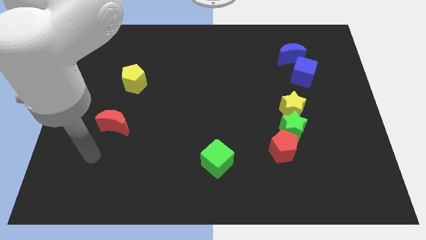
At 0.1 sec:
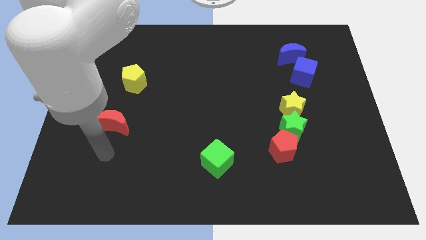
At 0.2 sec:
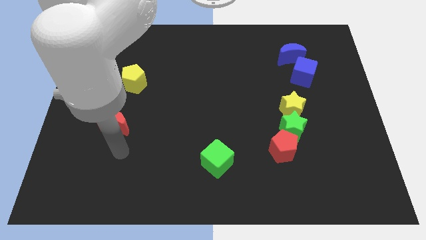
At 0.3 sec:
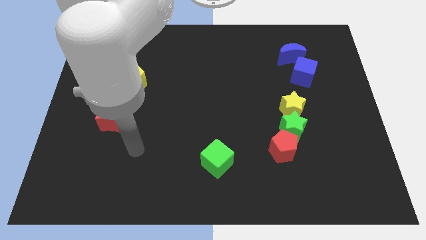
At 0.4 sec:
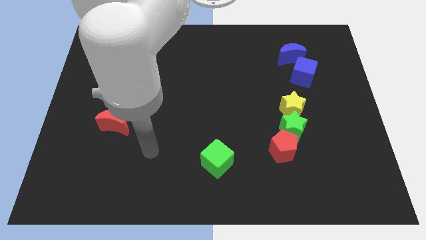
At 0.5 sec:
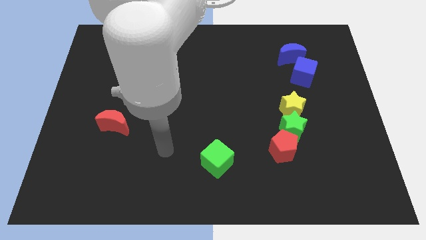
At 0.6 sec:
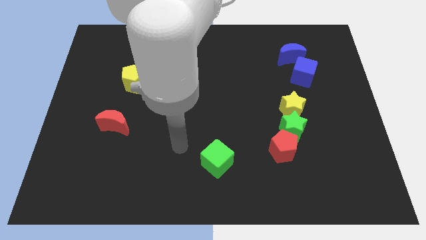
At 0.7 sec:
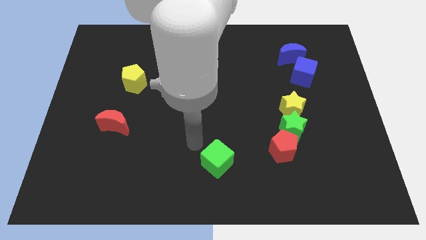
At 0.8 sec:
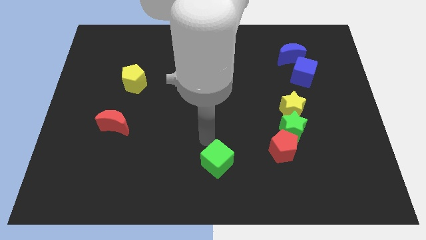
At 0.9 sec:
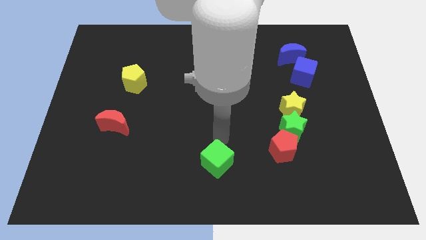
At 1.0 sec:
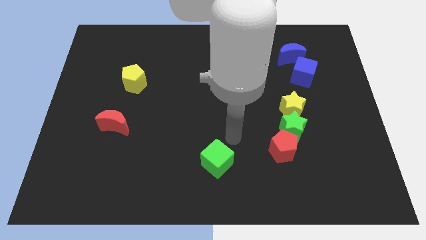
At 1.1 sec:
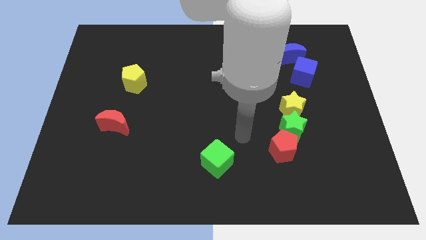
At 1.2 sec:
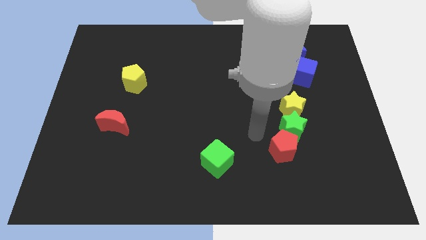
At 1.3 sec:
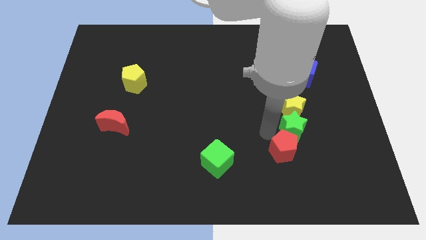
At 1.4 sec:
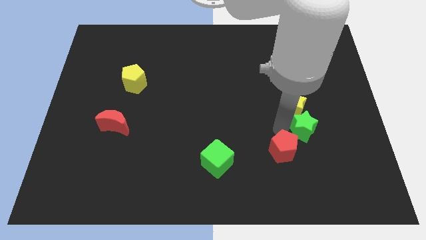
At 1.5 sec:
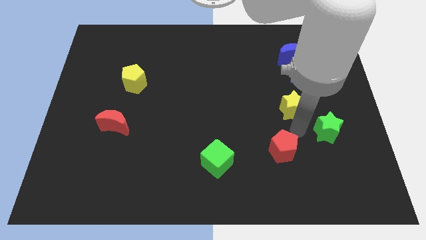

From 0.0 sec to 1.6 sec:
move the red pentagon away from the green star

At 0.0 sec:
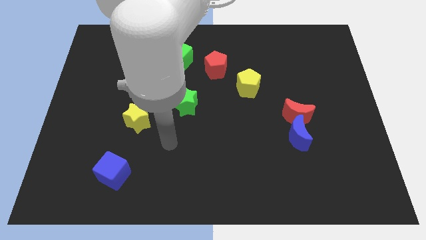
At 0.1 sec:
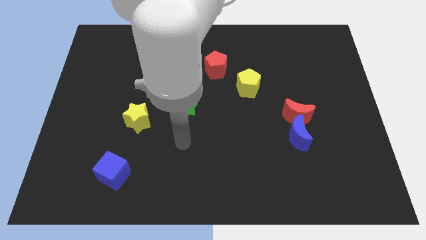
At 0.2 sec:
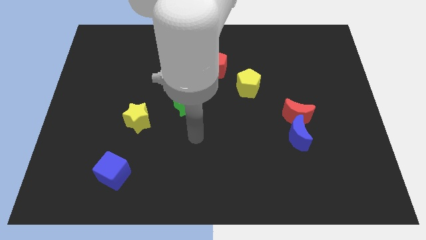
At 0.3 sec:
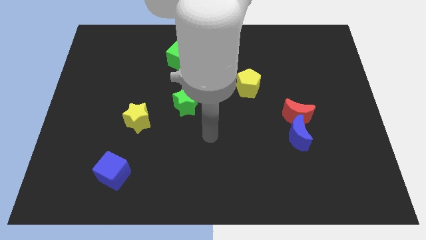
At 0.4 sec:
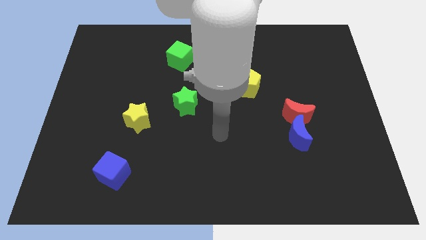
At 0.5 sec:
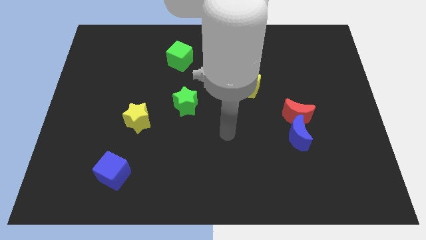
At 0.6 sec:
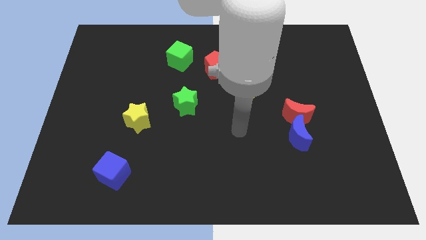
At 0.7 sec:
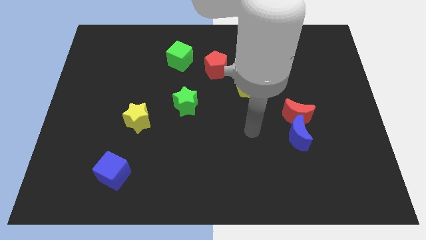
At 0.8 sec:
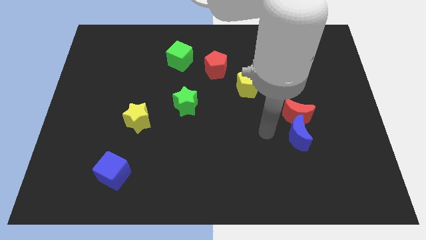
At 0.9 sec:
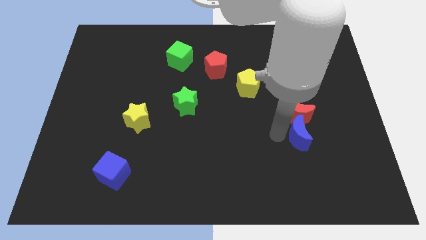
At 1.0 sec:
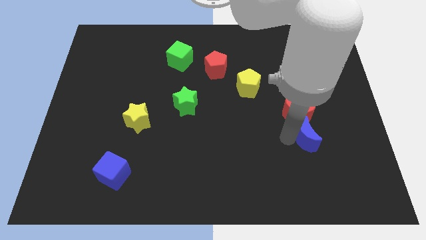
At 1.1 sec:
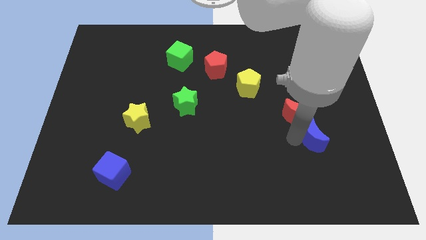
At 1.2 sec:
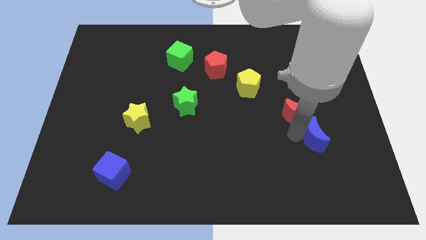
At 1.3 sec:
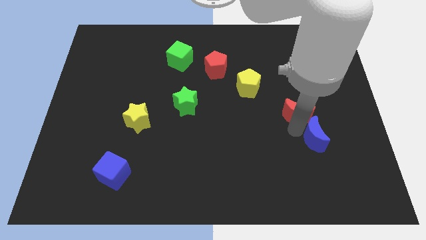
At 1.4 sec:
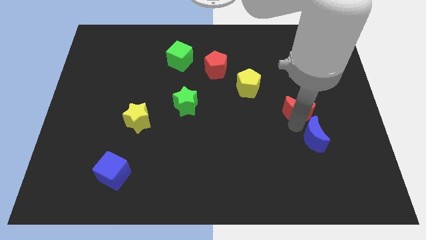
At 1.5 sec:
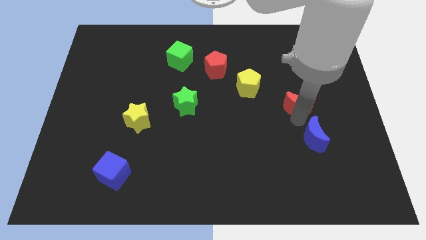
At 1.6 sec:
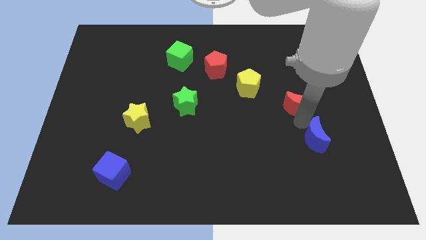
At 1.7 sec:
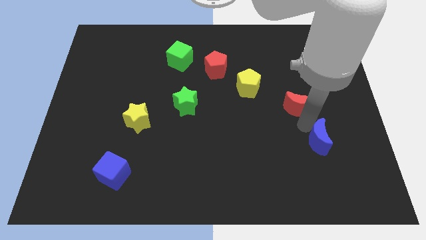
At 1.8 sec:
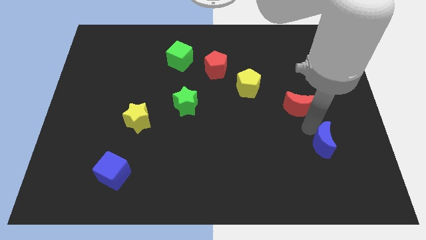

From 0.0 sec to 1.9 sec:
separate the red moon from the blue moon

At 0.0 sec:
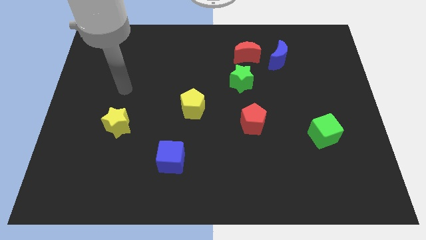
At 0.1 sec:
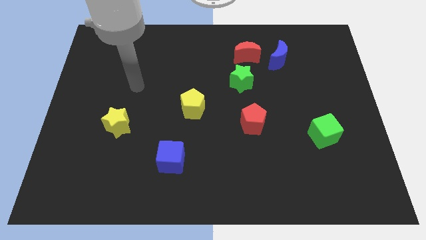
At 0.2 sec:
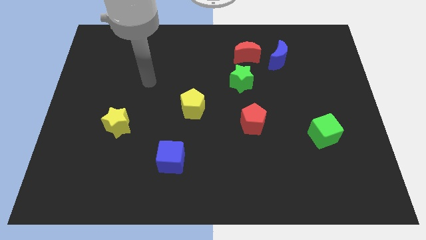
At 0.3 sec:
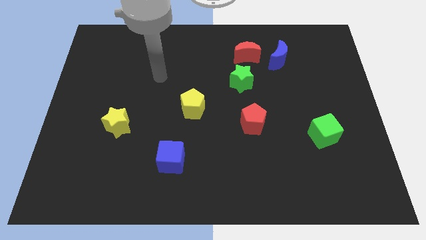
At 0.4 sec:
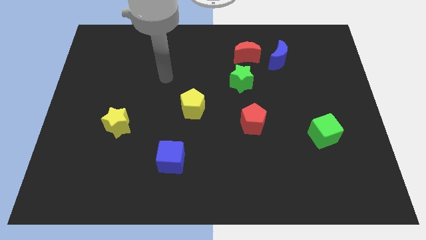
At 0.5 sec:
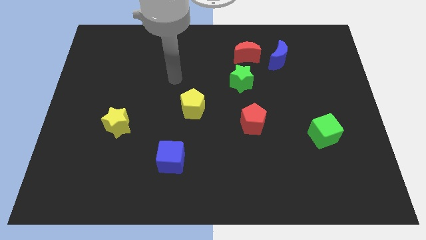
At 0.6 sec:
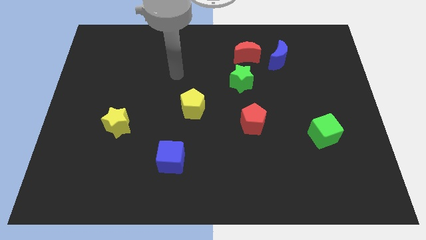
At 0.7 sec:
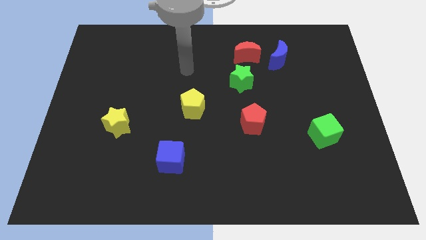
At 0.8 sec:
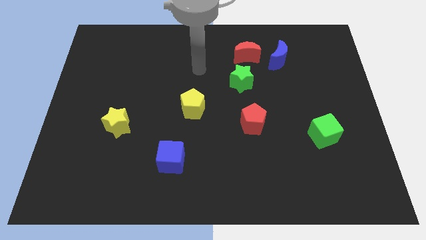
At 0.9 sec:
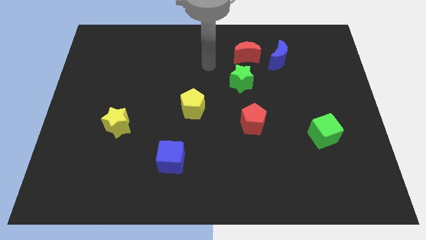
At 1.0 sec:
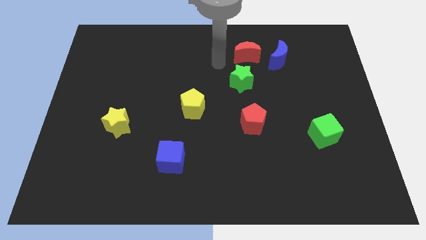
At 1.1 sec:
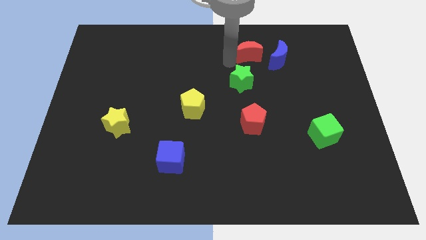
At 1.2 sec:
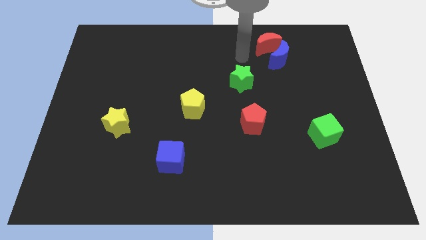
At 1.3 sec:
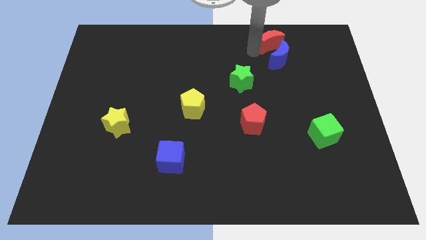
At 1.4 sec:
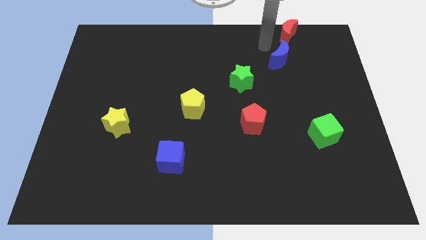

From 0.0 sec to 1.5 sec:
move the blue moon away from the red moon

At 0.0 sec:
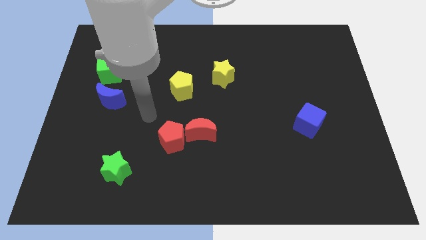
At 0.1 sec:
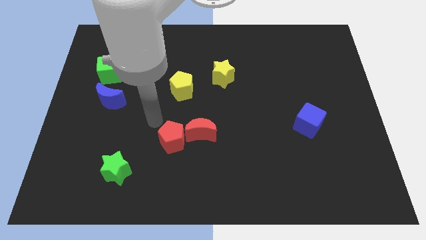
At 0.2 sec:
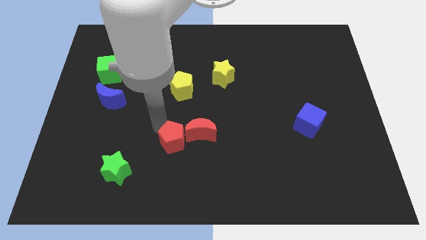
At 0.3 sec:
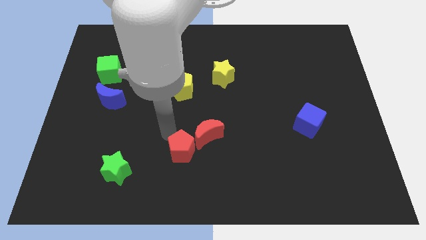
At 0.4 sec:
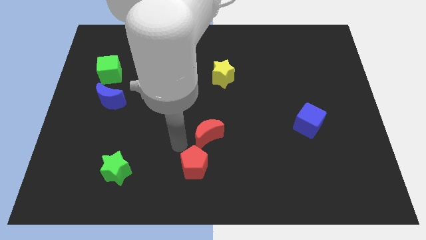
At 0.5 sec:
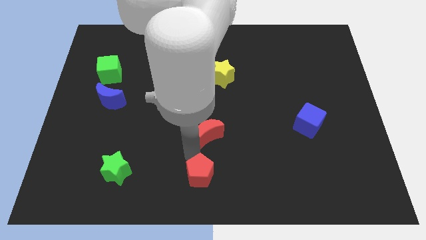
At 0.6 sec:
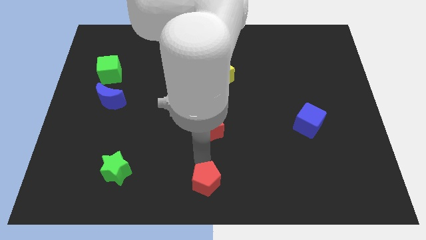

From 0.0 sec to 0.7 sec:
separate the red moon from the red pentagon

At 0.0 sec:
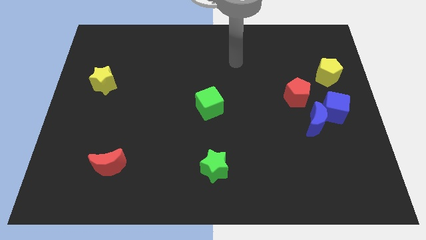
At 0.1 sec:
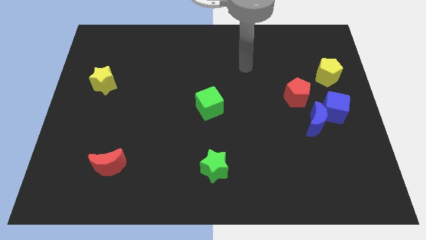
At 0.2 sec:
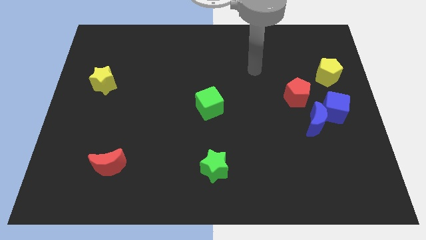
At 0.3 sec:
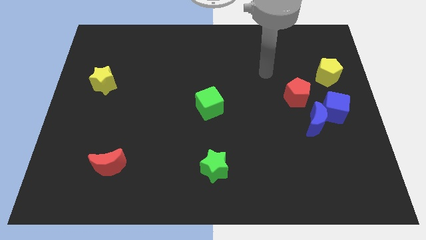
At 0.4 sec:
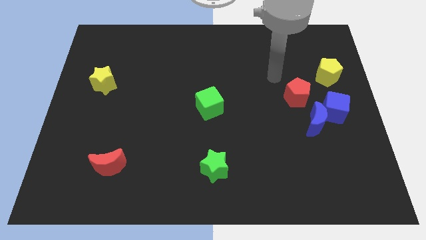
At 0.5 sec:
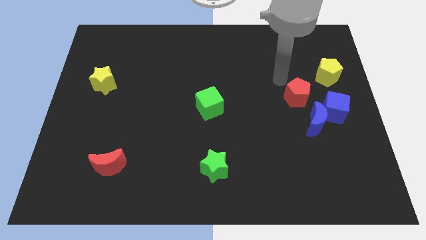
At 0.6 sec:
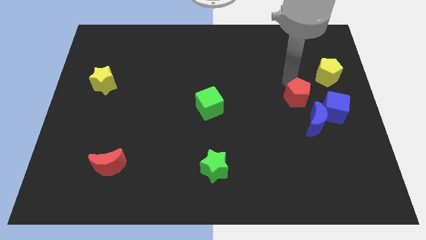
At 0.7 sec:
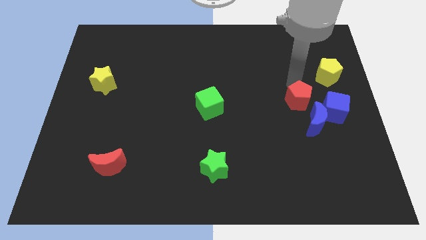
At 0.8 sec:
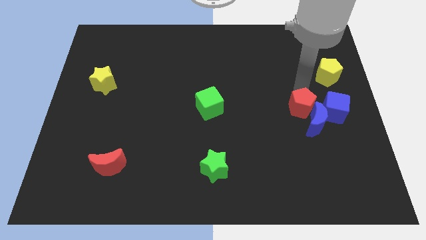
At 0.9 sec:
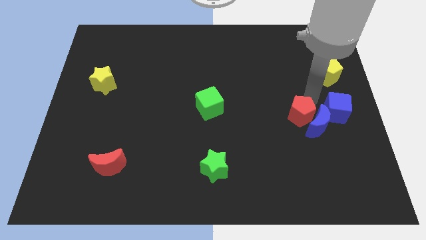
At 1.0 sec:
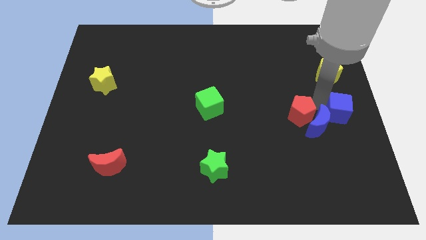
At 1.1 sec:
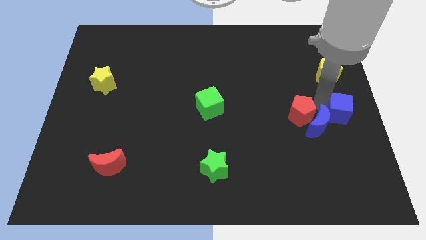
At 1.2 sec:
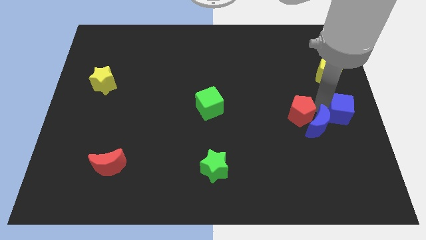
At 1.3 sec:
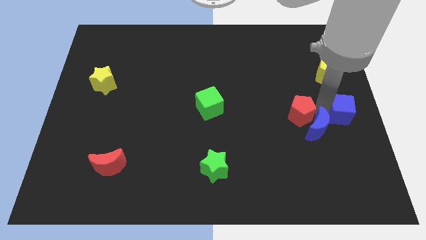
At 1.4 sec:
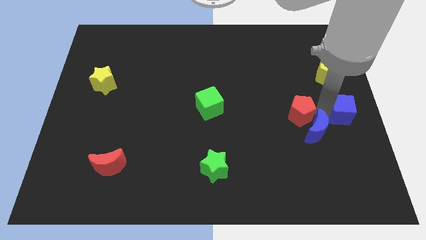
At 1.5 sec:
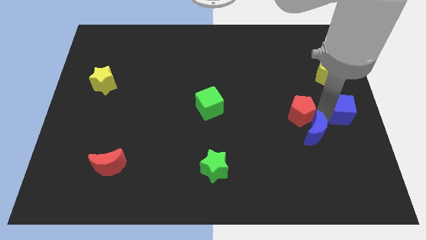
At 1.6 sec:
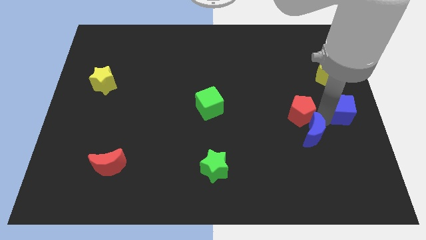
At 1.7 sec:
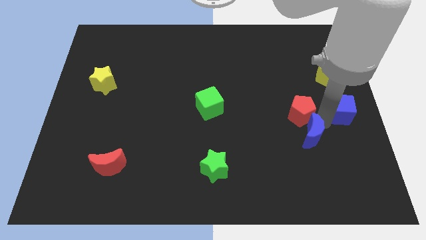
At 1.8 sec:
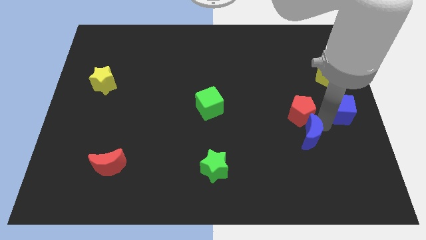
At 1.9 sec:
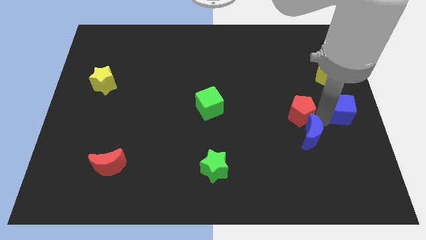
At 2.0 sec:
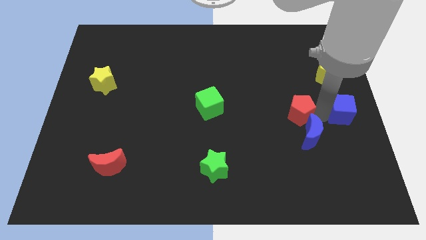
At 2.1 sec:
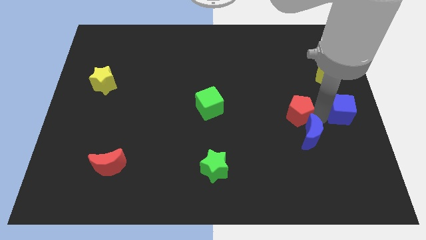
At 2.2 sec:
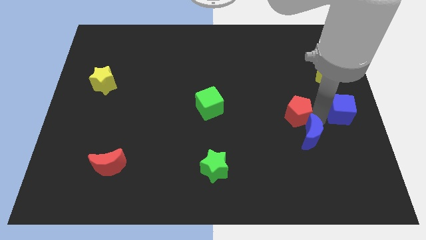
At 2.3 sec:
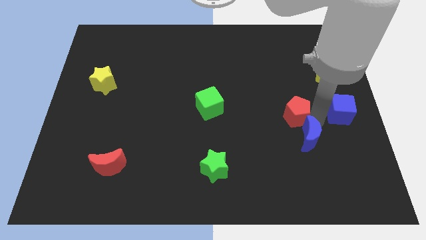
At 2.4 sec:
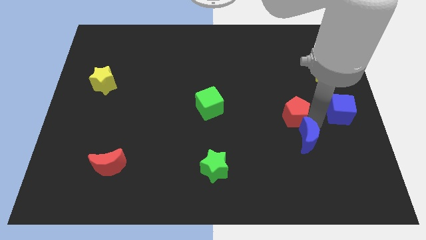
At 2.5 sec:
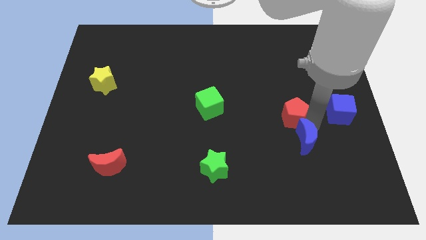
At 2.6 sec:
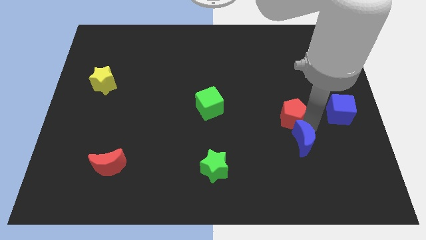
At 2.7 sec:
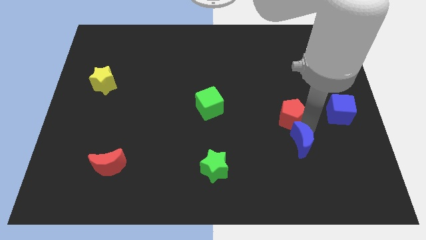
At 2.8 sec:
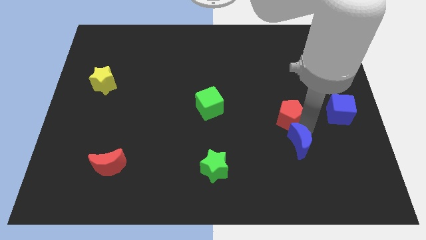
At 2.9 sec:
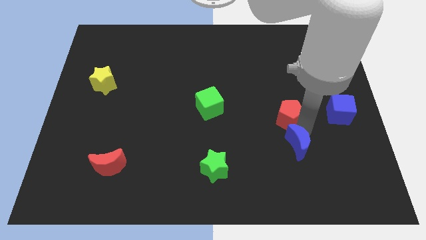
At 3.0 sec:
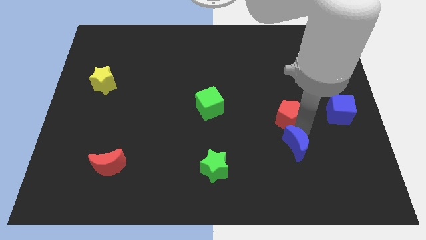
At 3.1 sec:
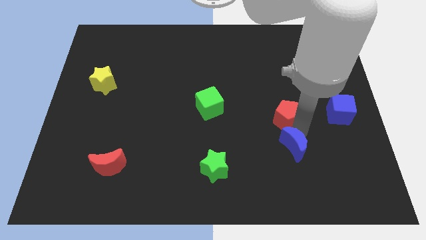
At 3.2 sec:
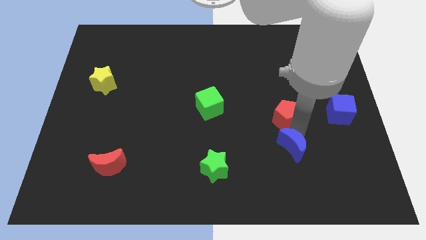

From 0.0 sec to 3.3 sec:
move the blue moon away from the blue cube and red pentagon

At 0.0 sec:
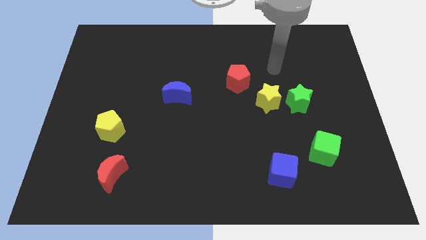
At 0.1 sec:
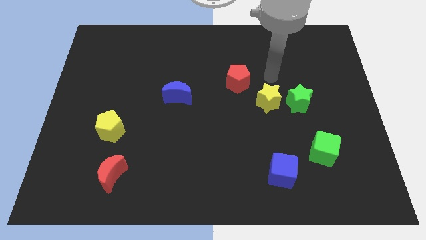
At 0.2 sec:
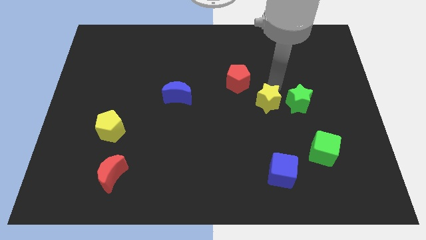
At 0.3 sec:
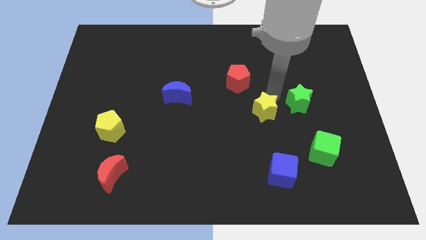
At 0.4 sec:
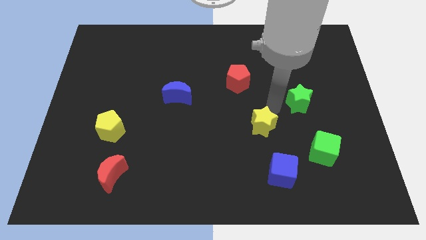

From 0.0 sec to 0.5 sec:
move the green star away from the yellow star
